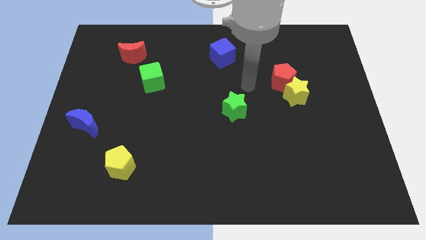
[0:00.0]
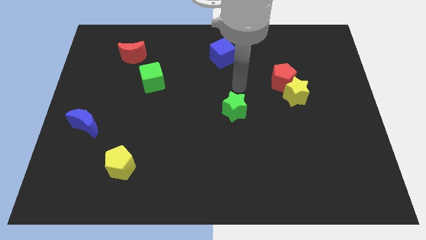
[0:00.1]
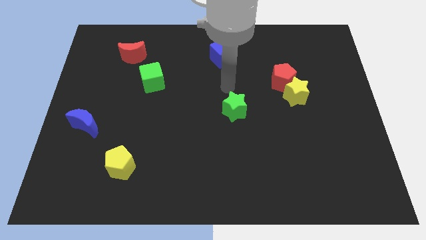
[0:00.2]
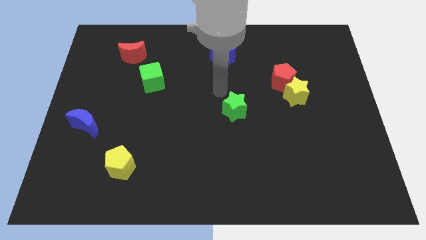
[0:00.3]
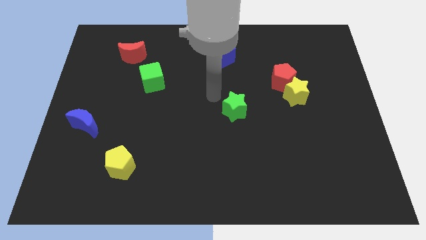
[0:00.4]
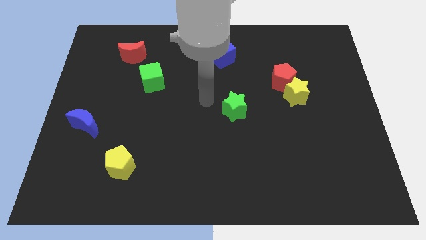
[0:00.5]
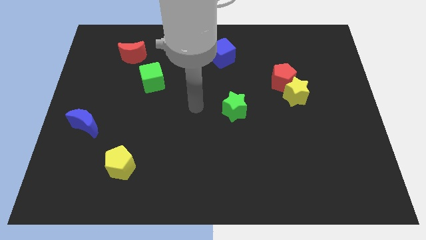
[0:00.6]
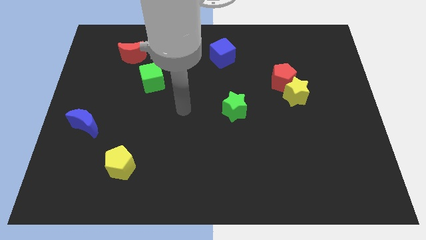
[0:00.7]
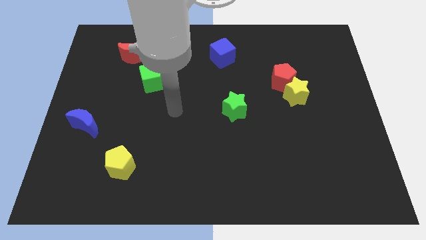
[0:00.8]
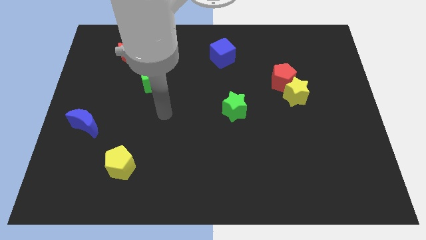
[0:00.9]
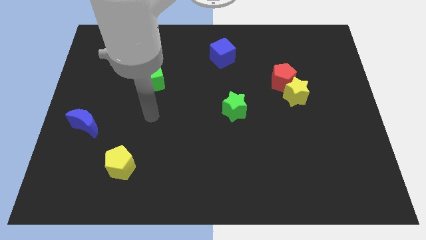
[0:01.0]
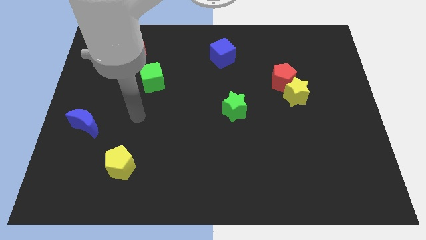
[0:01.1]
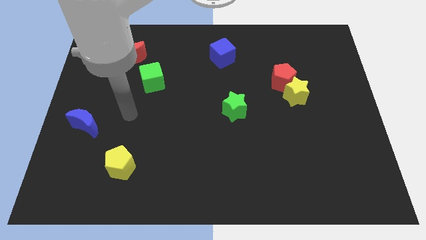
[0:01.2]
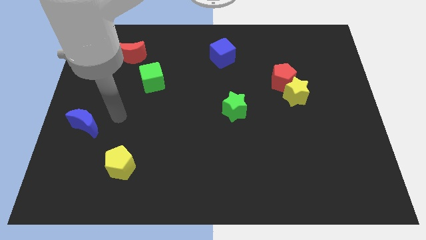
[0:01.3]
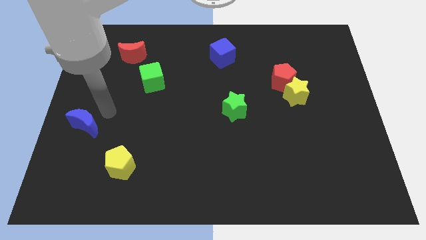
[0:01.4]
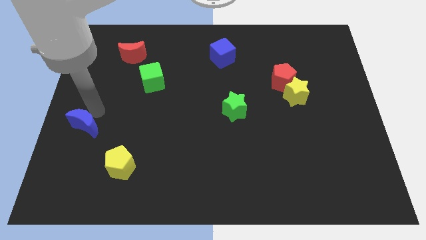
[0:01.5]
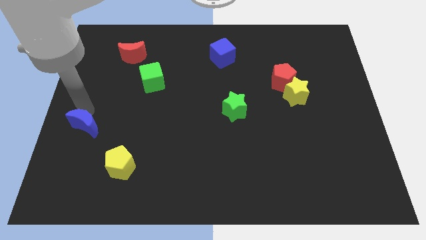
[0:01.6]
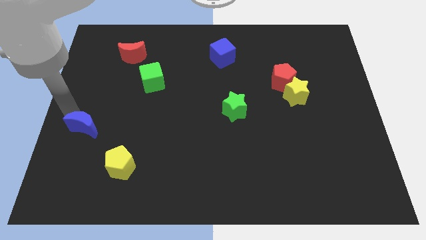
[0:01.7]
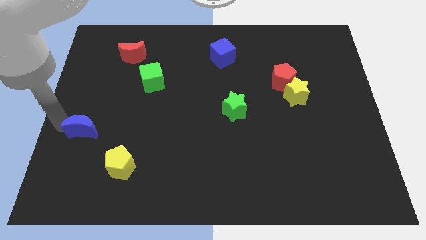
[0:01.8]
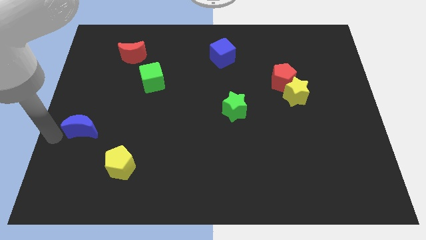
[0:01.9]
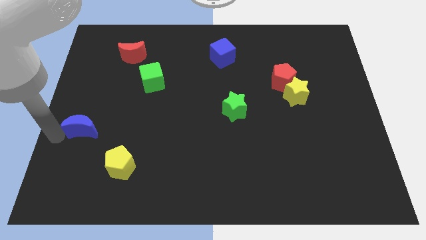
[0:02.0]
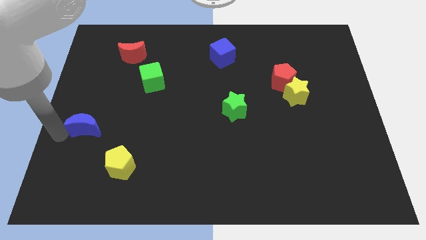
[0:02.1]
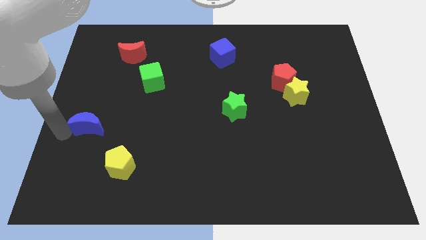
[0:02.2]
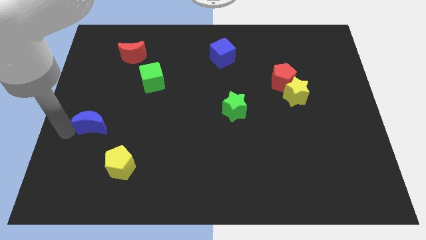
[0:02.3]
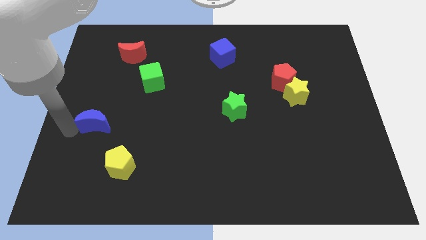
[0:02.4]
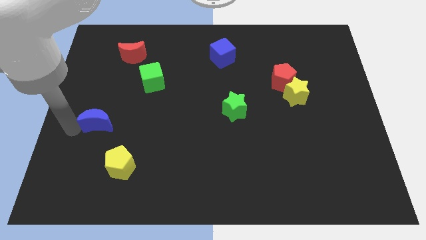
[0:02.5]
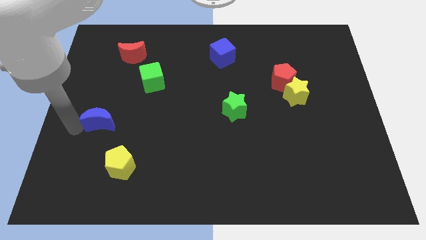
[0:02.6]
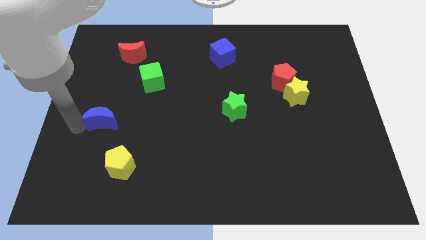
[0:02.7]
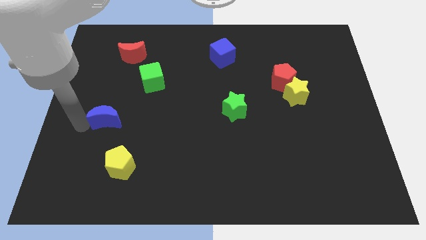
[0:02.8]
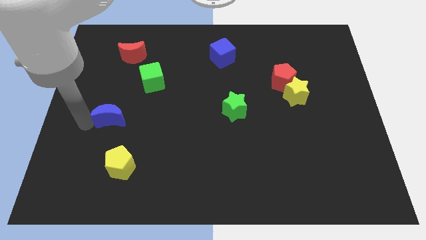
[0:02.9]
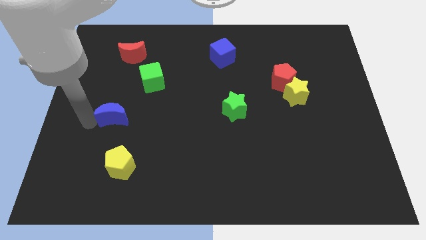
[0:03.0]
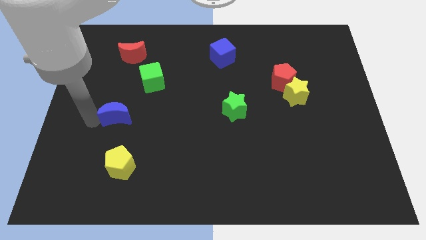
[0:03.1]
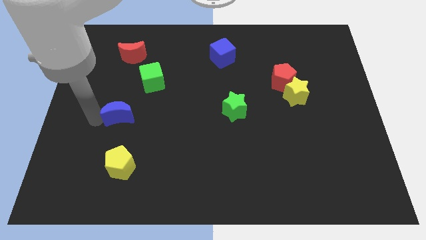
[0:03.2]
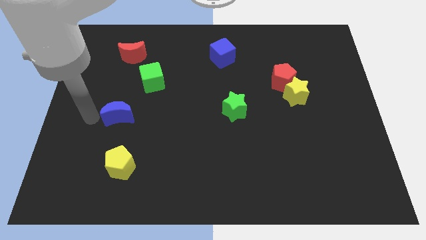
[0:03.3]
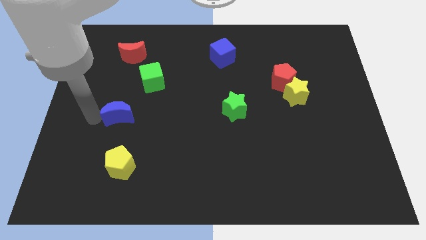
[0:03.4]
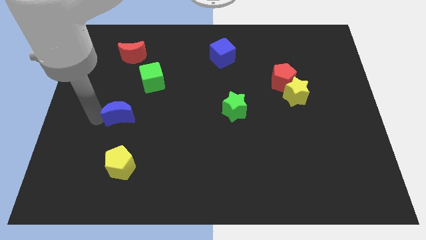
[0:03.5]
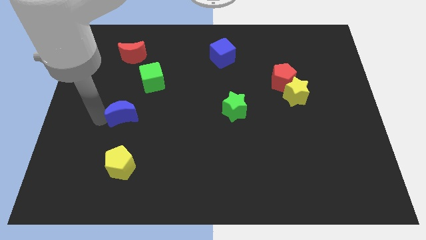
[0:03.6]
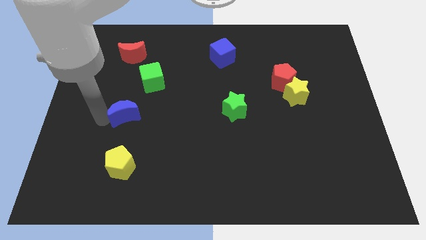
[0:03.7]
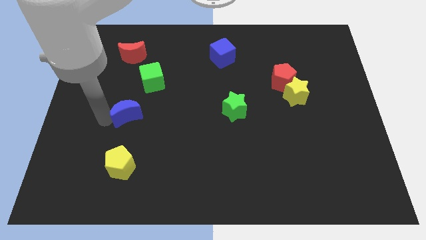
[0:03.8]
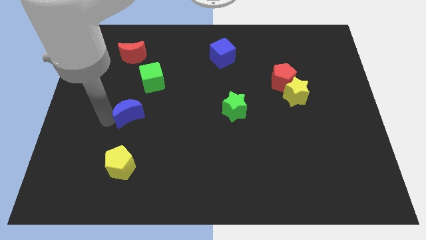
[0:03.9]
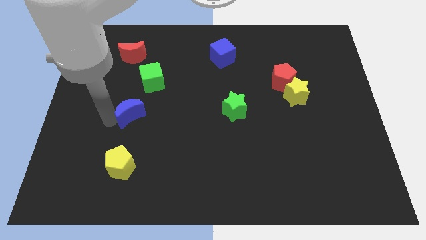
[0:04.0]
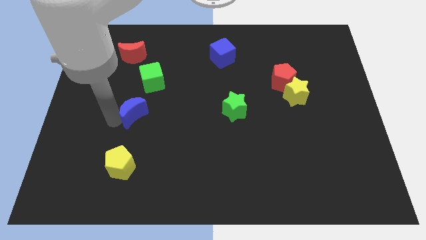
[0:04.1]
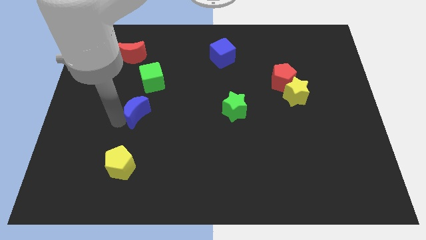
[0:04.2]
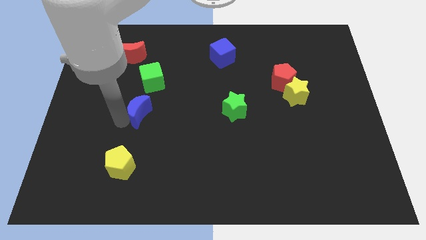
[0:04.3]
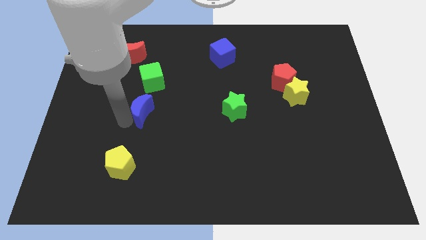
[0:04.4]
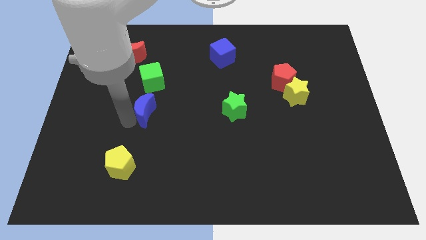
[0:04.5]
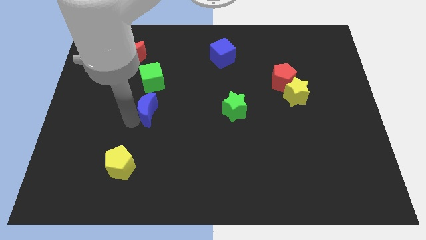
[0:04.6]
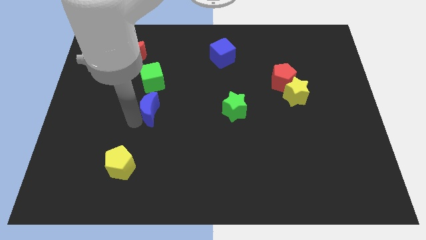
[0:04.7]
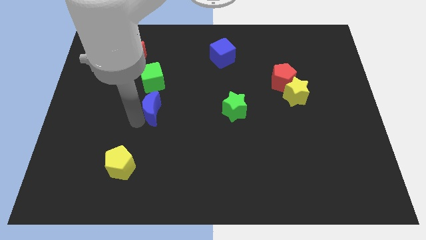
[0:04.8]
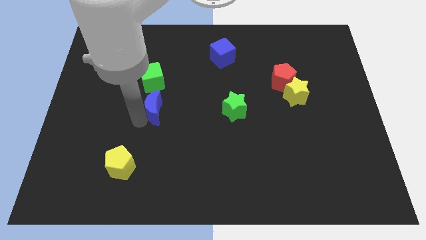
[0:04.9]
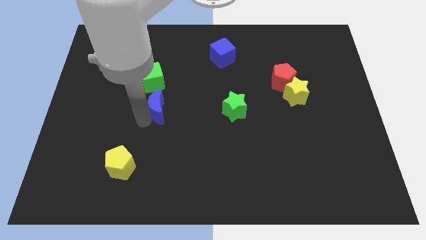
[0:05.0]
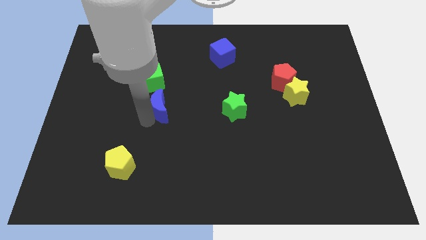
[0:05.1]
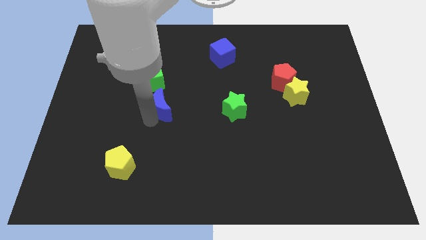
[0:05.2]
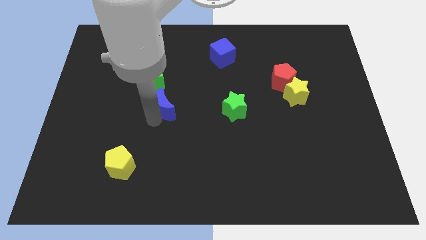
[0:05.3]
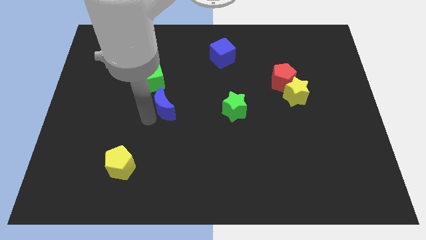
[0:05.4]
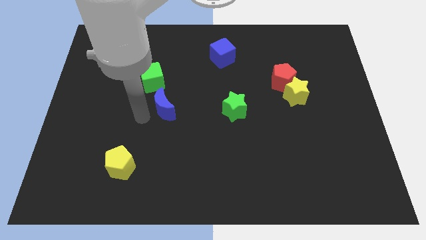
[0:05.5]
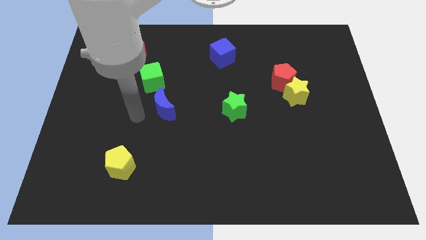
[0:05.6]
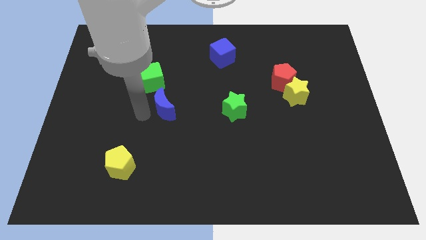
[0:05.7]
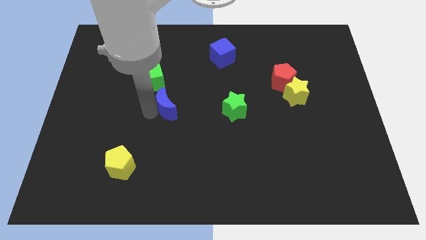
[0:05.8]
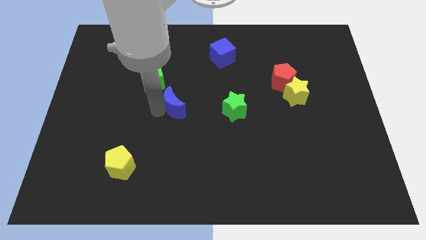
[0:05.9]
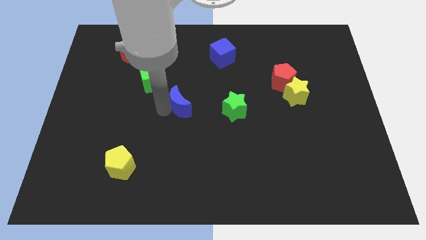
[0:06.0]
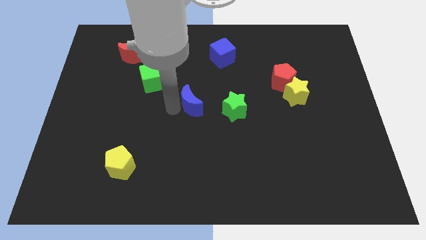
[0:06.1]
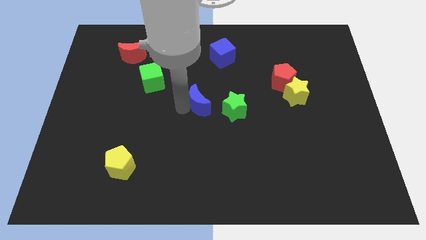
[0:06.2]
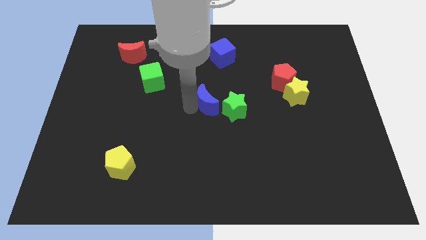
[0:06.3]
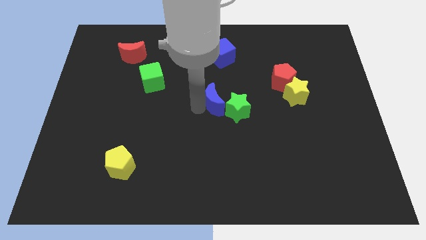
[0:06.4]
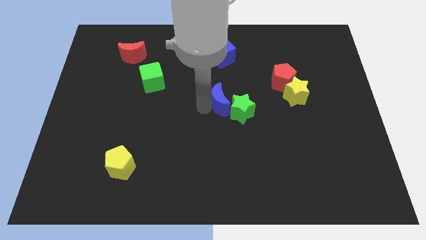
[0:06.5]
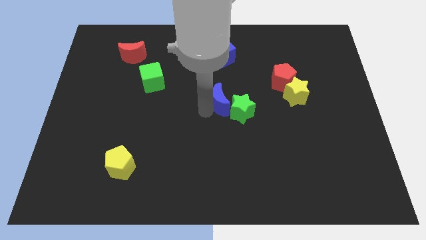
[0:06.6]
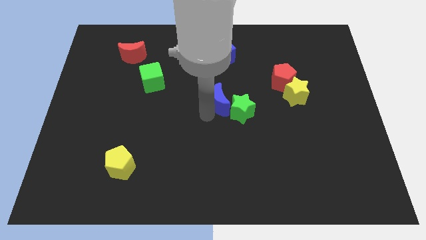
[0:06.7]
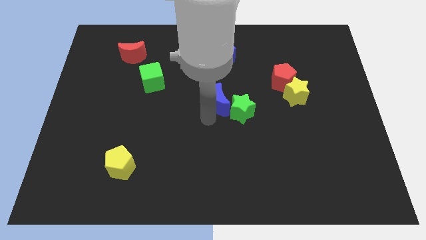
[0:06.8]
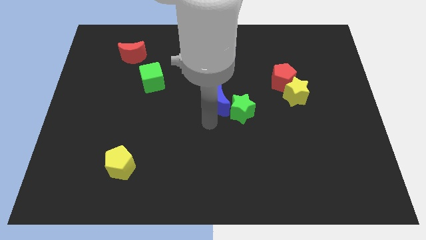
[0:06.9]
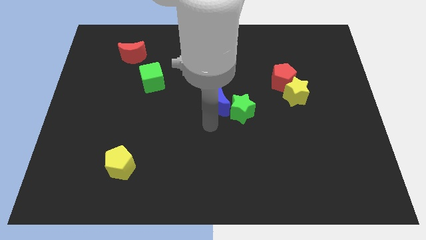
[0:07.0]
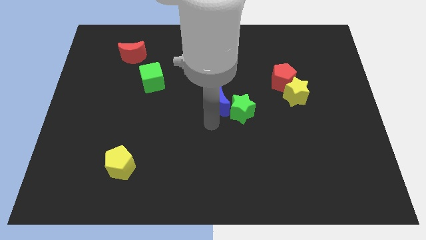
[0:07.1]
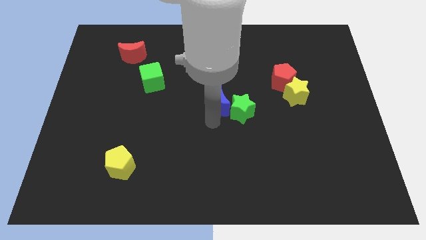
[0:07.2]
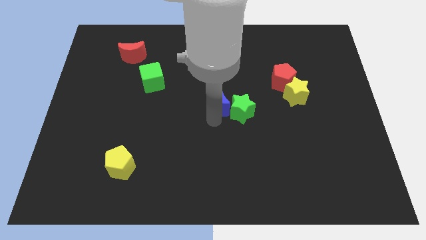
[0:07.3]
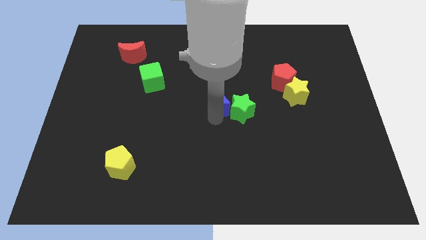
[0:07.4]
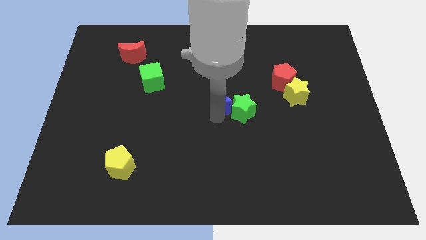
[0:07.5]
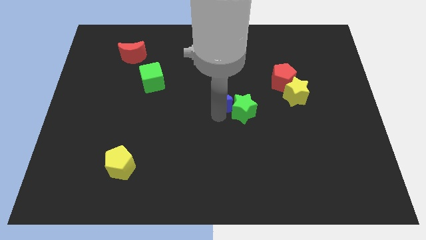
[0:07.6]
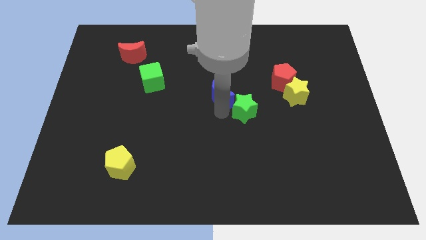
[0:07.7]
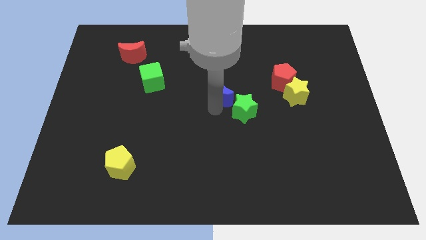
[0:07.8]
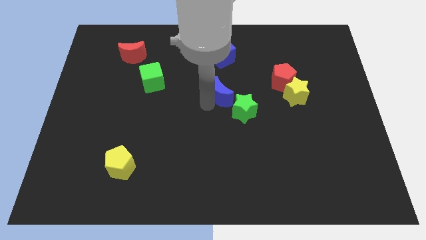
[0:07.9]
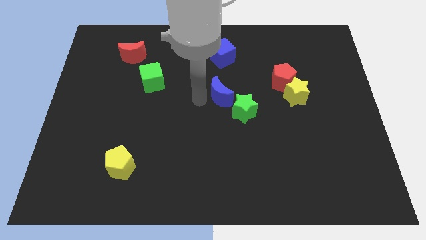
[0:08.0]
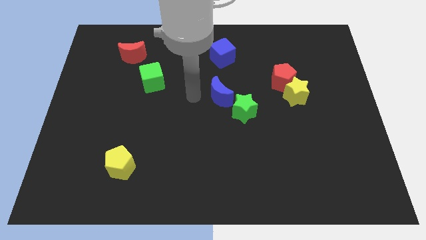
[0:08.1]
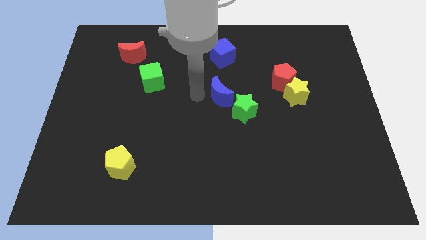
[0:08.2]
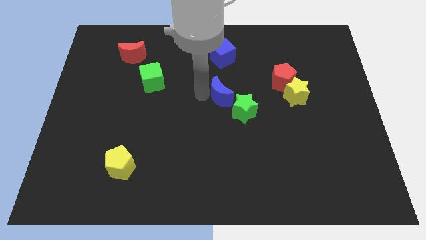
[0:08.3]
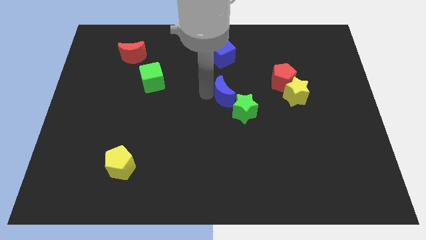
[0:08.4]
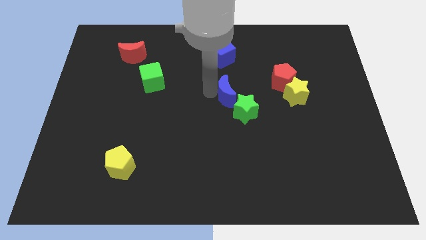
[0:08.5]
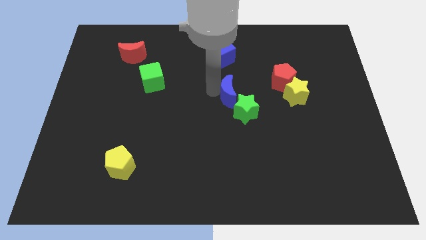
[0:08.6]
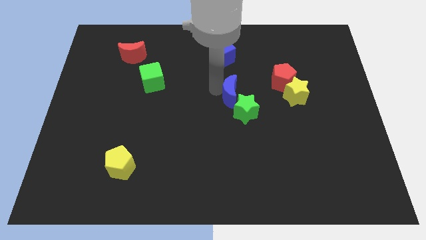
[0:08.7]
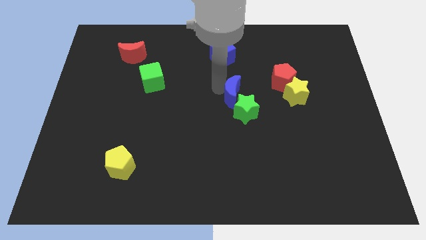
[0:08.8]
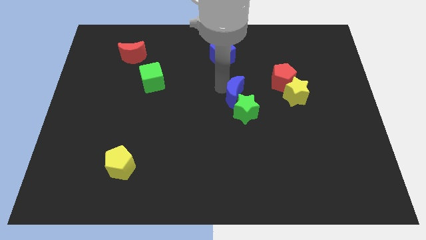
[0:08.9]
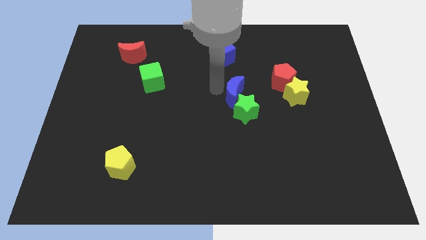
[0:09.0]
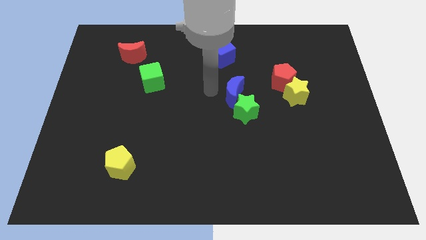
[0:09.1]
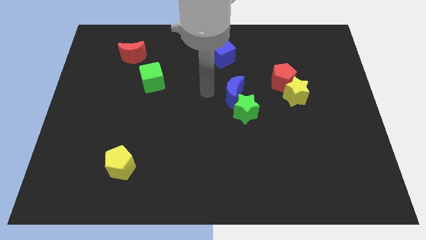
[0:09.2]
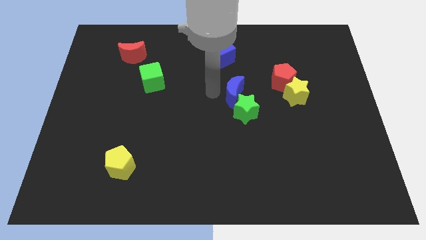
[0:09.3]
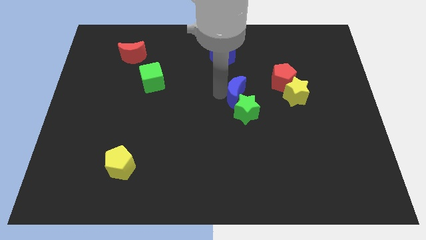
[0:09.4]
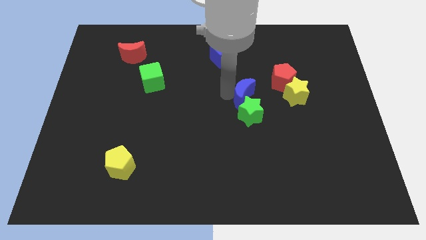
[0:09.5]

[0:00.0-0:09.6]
put the blue moon to the bottom left of the red pentagon
